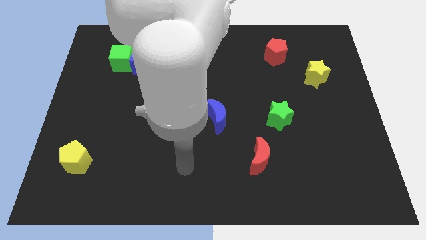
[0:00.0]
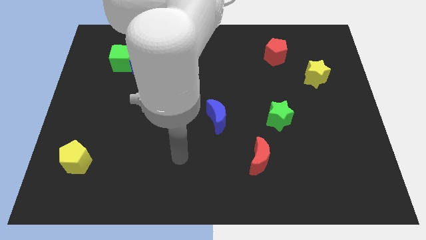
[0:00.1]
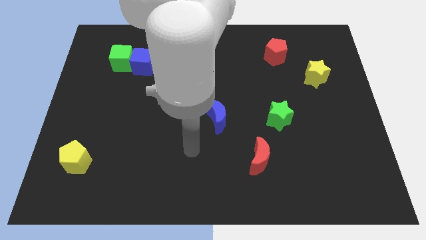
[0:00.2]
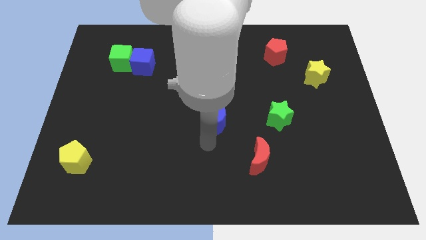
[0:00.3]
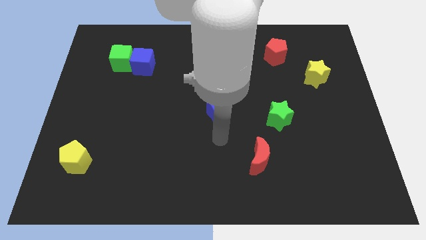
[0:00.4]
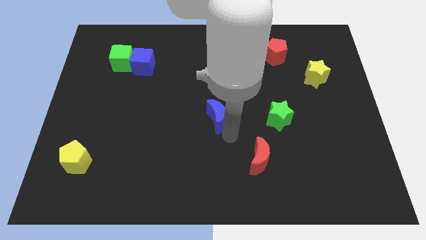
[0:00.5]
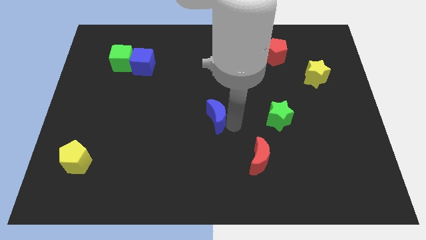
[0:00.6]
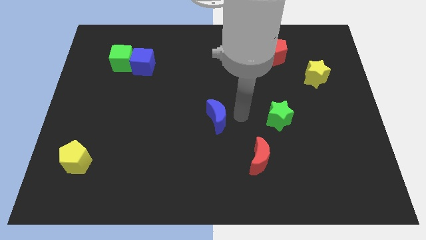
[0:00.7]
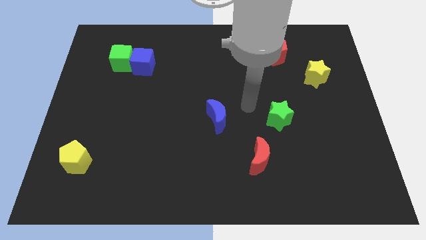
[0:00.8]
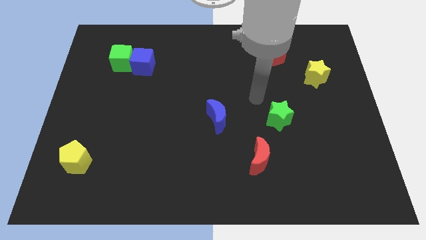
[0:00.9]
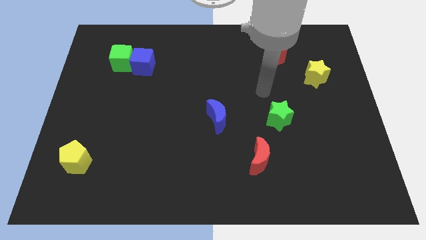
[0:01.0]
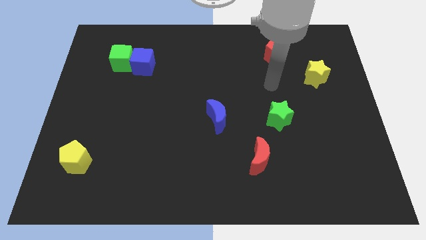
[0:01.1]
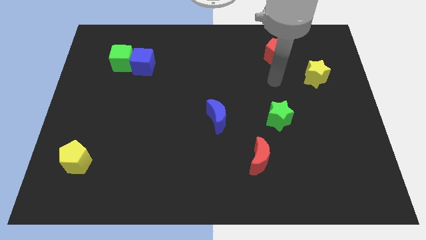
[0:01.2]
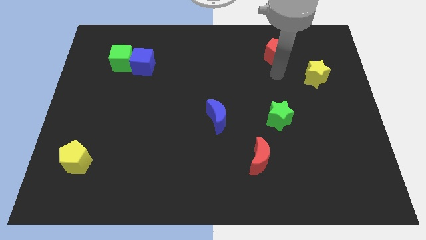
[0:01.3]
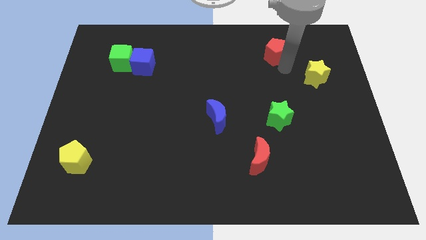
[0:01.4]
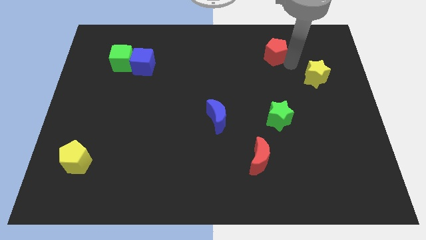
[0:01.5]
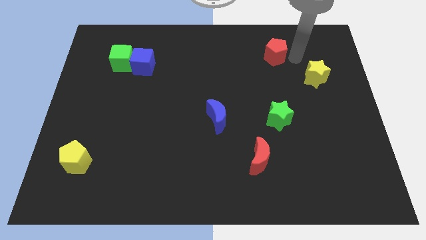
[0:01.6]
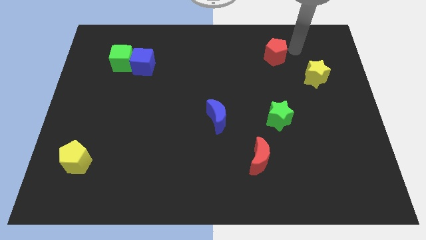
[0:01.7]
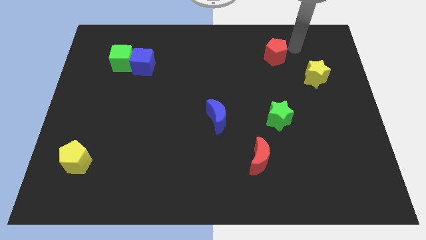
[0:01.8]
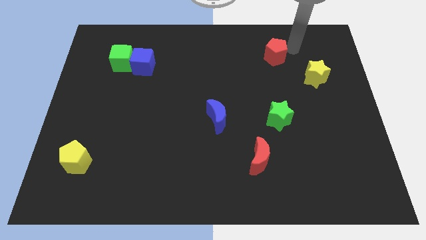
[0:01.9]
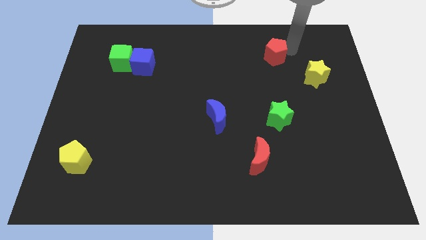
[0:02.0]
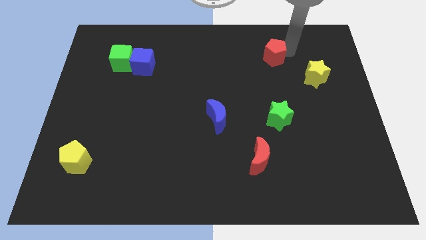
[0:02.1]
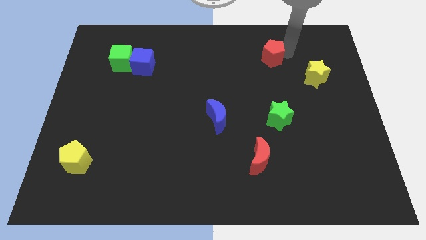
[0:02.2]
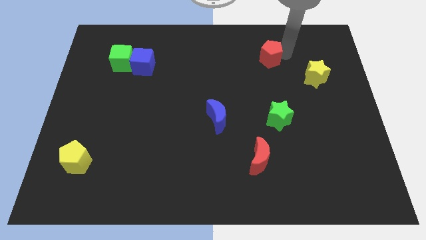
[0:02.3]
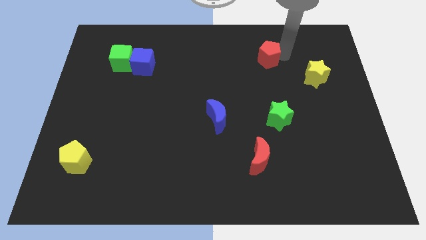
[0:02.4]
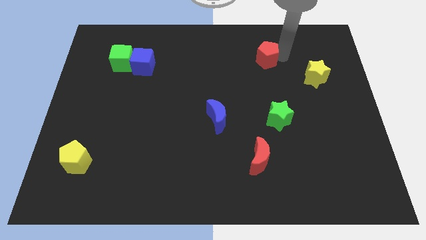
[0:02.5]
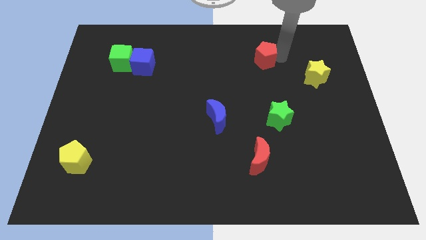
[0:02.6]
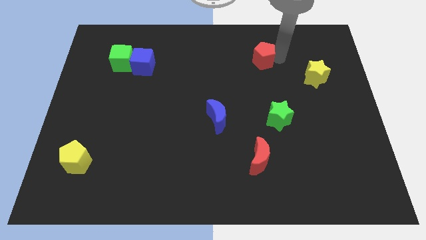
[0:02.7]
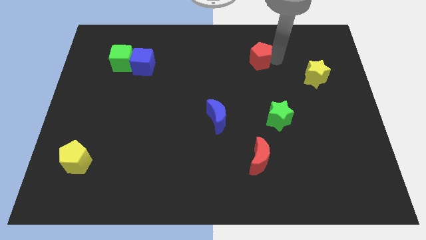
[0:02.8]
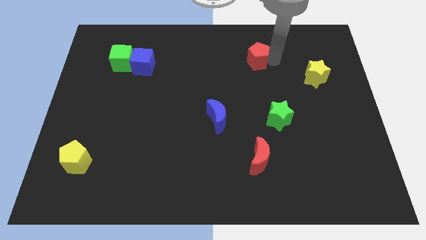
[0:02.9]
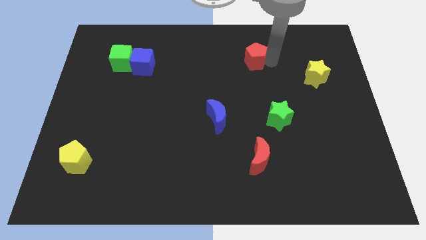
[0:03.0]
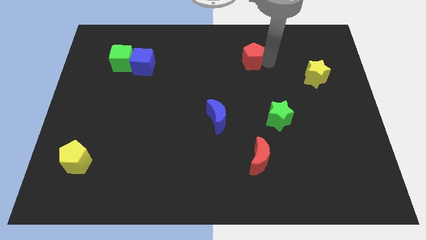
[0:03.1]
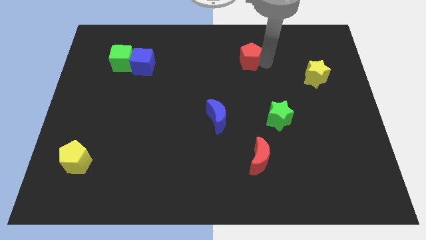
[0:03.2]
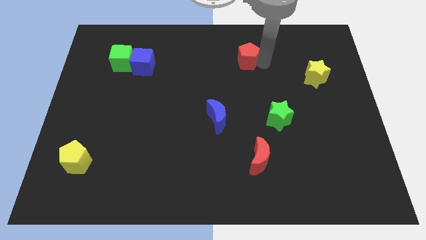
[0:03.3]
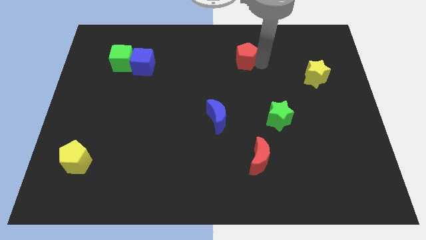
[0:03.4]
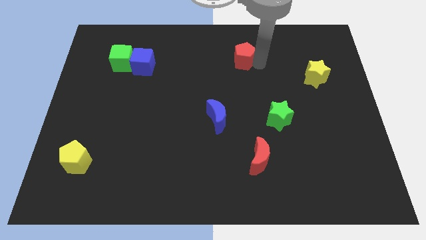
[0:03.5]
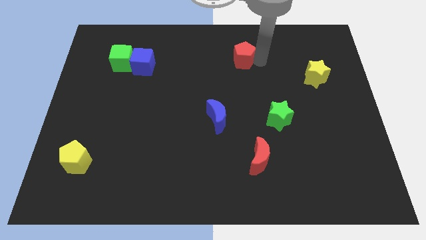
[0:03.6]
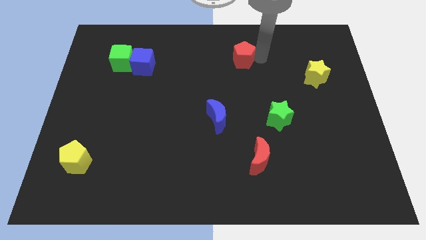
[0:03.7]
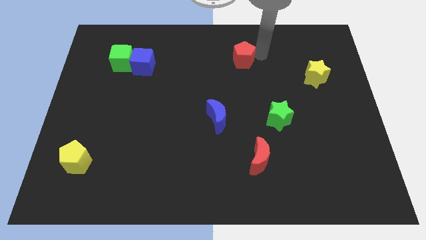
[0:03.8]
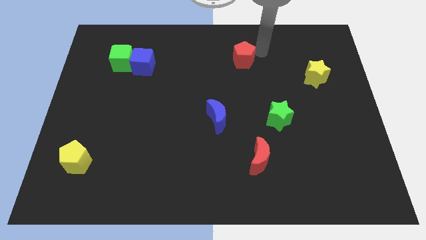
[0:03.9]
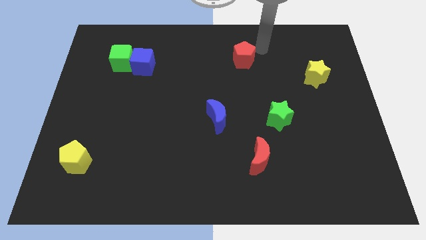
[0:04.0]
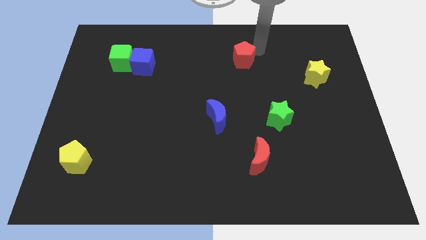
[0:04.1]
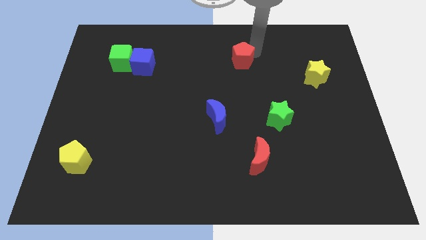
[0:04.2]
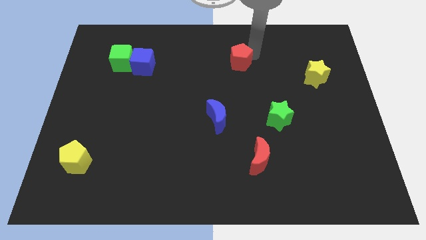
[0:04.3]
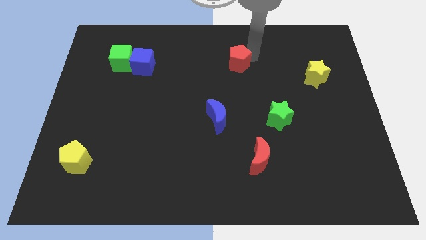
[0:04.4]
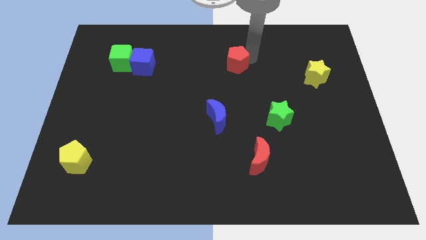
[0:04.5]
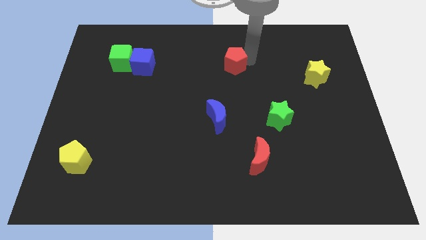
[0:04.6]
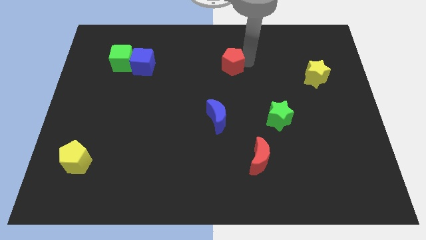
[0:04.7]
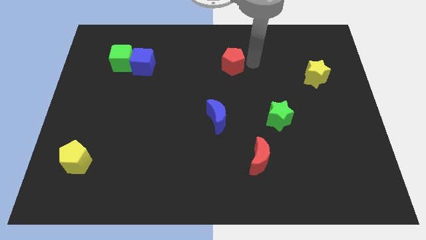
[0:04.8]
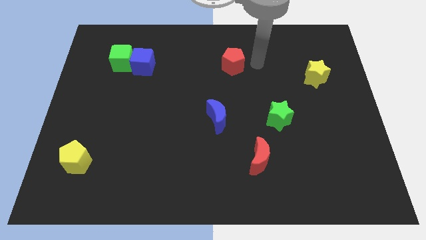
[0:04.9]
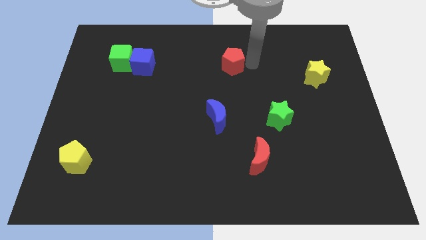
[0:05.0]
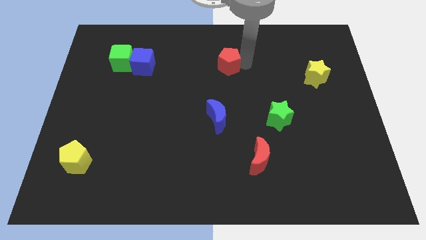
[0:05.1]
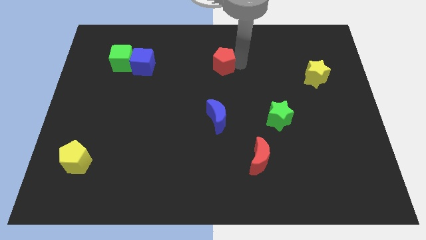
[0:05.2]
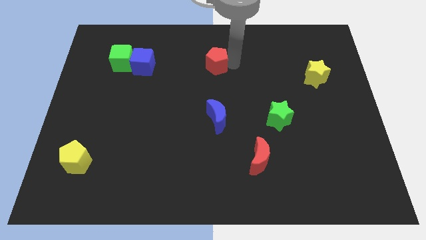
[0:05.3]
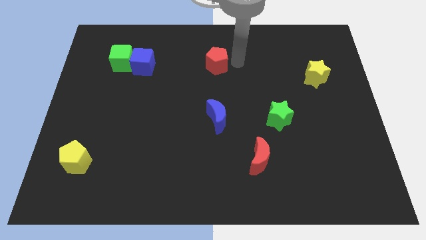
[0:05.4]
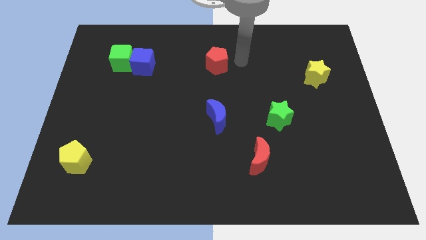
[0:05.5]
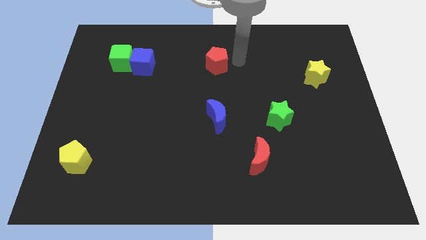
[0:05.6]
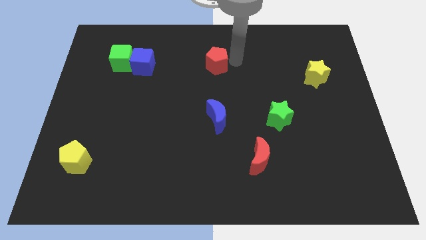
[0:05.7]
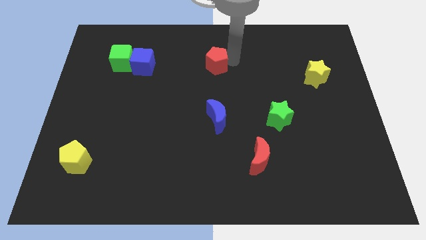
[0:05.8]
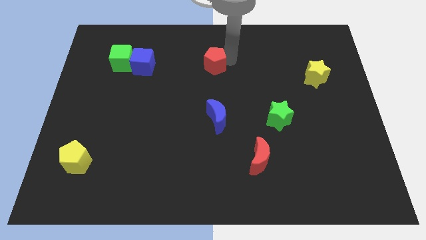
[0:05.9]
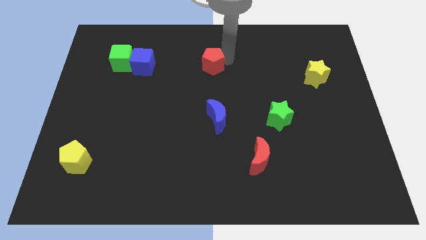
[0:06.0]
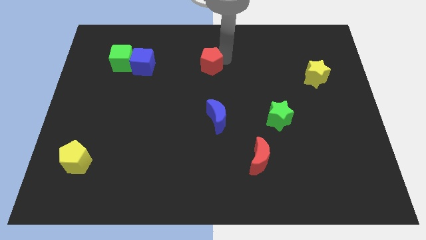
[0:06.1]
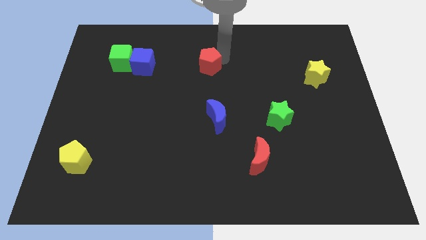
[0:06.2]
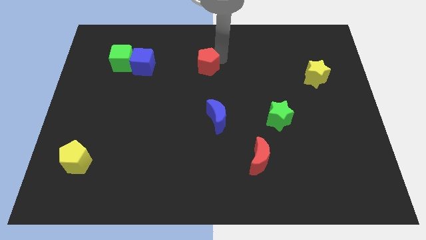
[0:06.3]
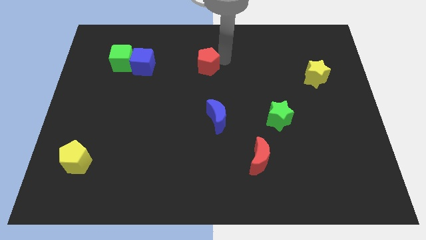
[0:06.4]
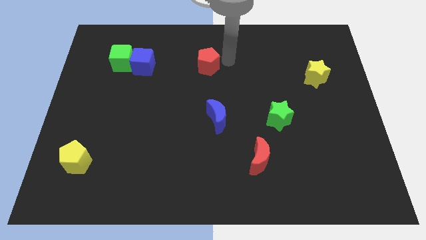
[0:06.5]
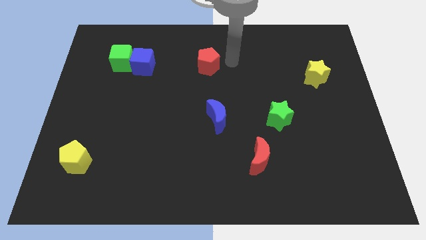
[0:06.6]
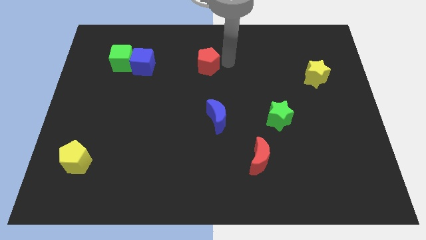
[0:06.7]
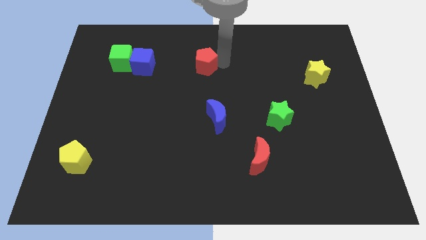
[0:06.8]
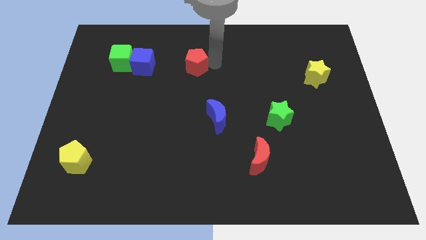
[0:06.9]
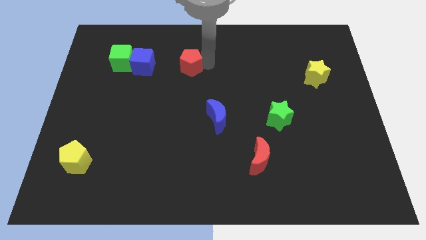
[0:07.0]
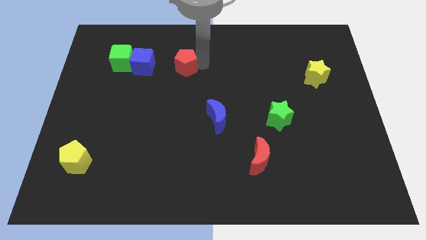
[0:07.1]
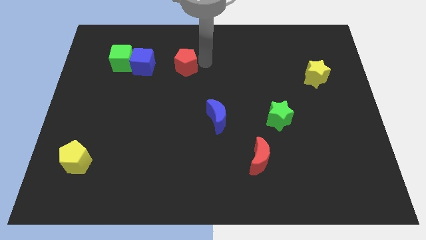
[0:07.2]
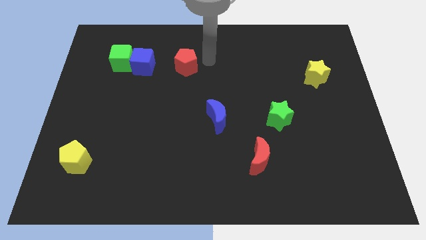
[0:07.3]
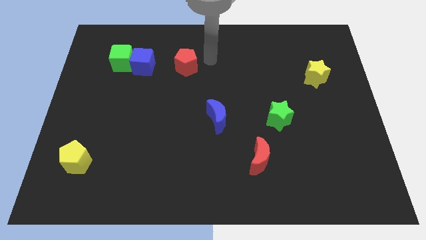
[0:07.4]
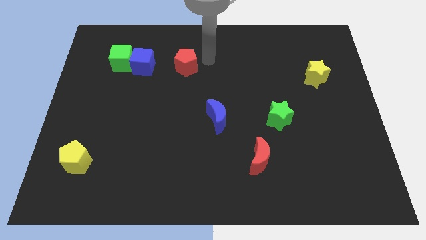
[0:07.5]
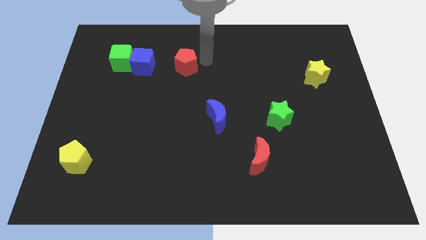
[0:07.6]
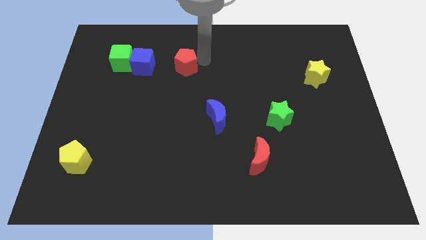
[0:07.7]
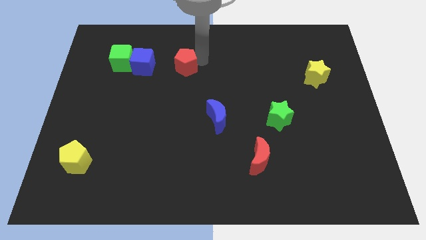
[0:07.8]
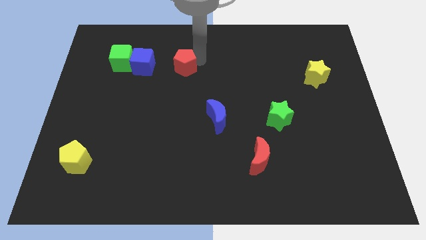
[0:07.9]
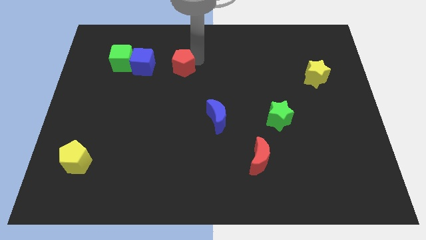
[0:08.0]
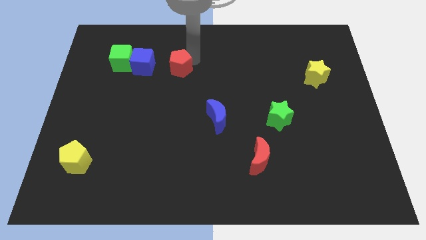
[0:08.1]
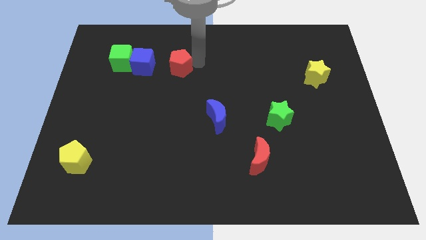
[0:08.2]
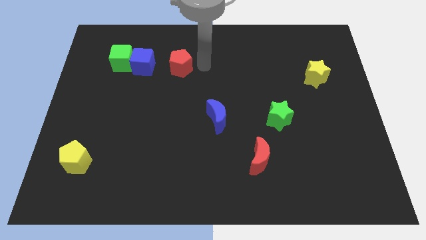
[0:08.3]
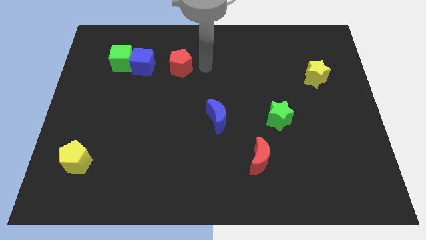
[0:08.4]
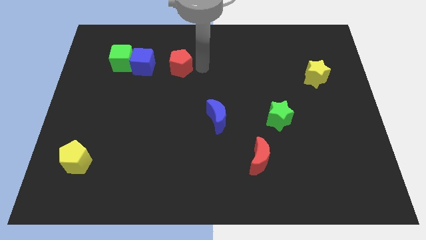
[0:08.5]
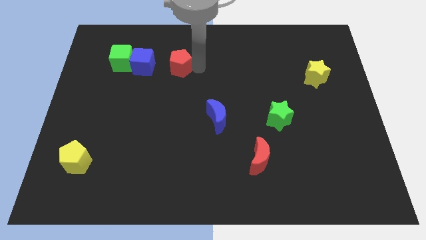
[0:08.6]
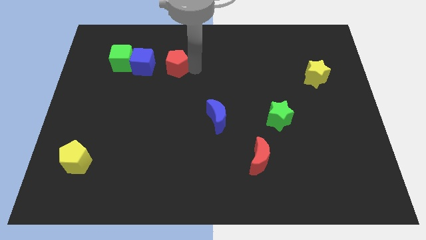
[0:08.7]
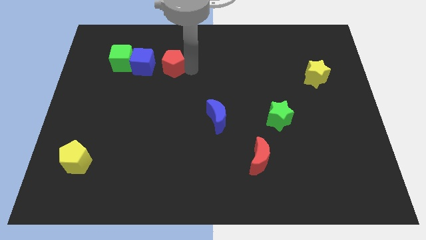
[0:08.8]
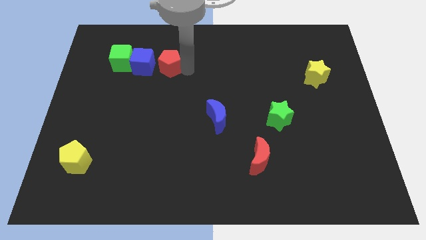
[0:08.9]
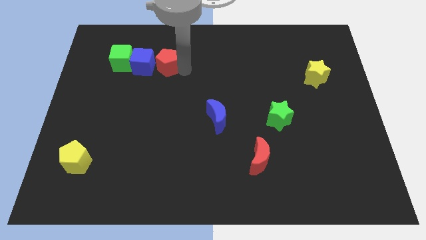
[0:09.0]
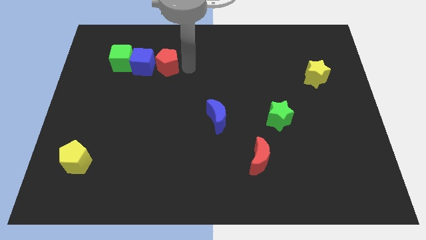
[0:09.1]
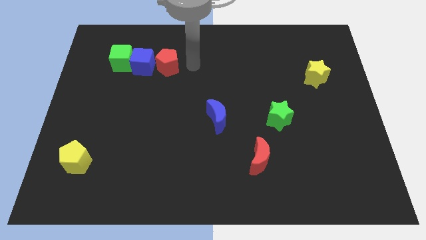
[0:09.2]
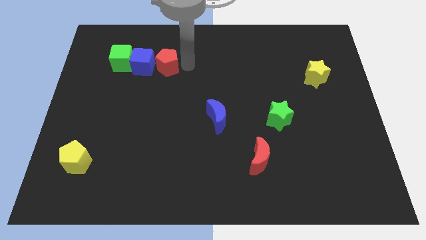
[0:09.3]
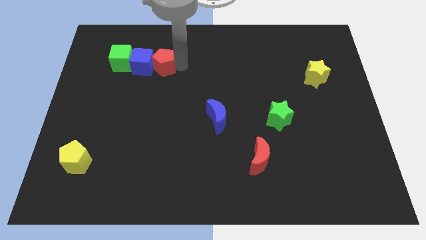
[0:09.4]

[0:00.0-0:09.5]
move the red pentagon next to the blue cube
